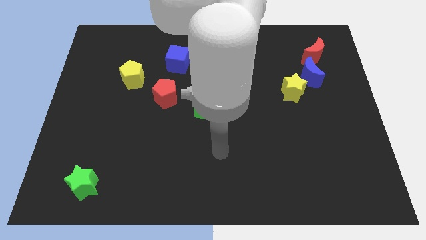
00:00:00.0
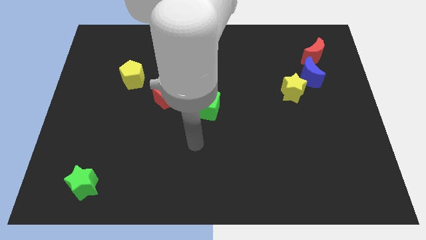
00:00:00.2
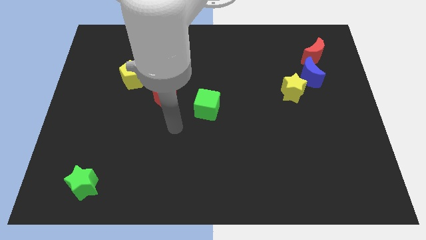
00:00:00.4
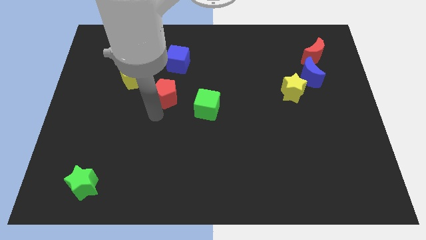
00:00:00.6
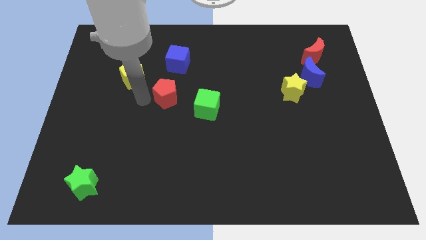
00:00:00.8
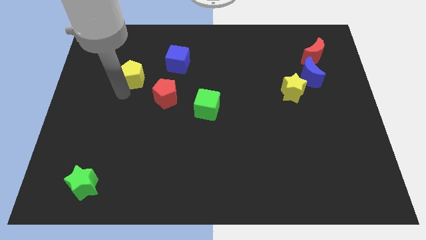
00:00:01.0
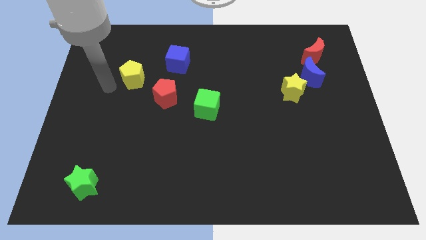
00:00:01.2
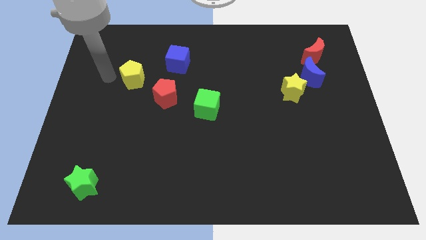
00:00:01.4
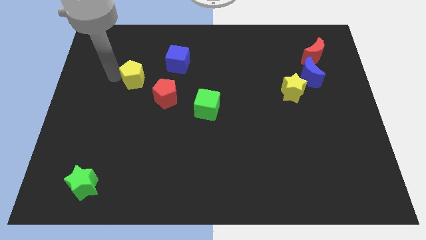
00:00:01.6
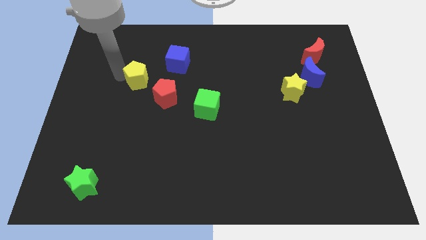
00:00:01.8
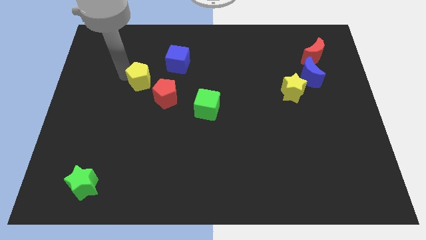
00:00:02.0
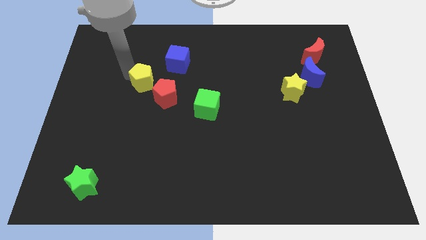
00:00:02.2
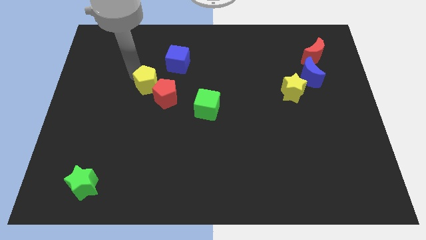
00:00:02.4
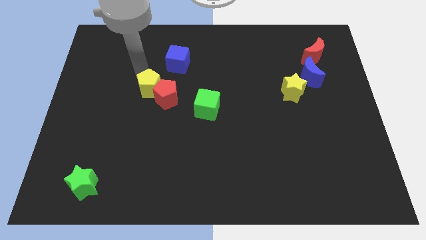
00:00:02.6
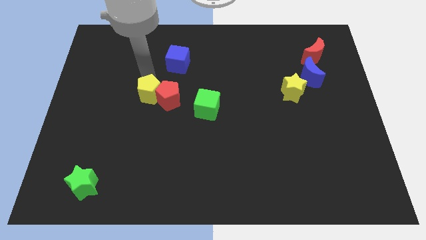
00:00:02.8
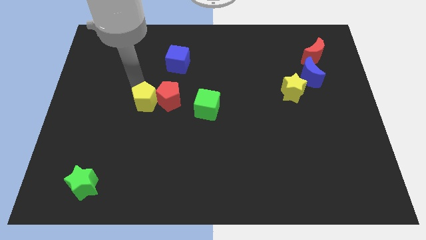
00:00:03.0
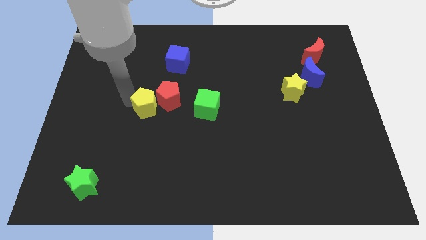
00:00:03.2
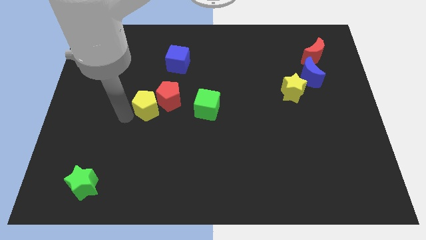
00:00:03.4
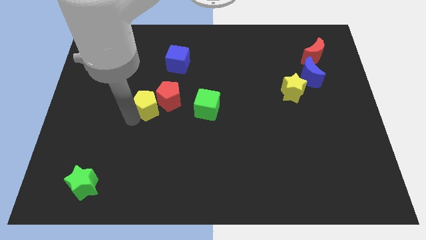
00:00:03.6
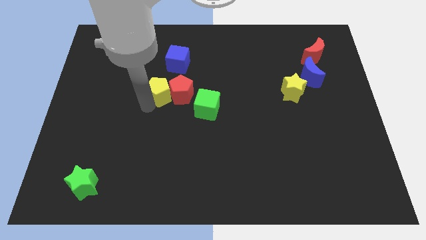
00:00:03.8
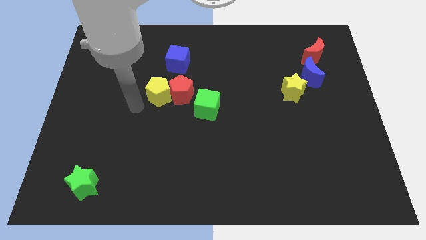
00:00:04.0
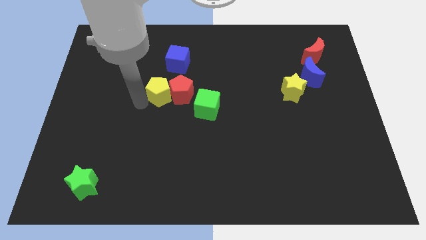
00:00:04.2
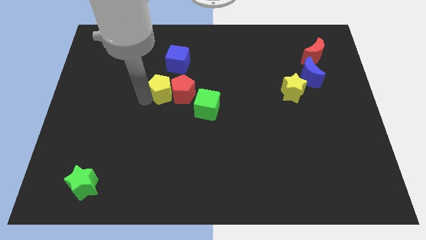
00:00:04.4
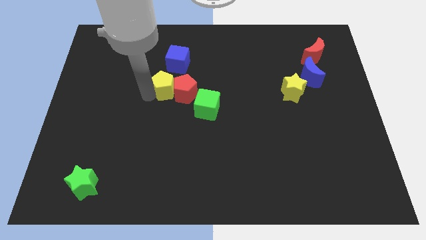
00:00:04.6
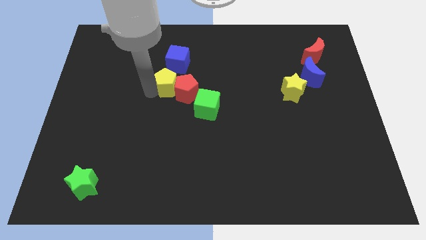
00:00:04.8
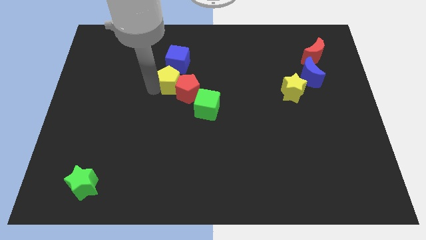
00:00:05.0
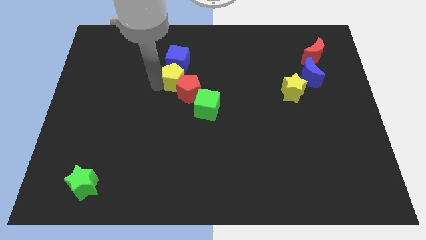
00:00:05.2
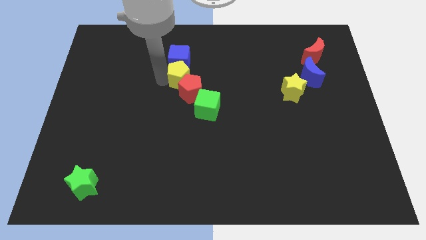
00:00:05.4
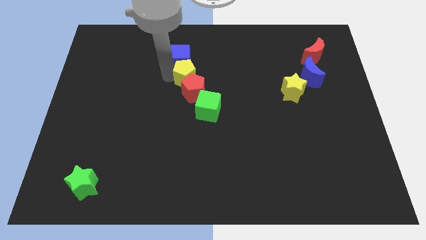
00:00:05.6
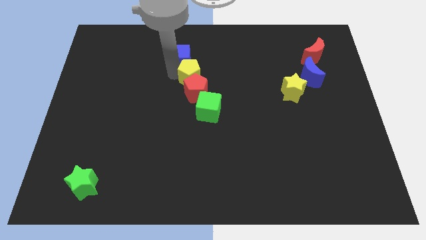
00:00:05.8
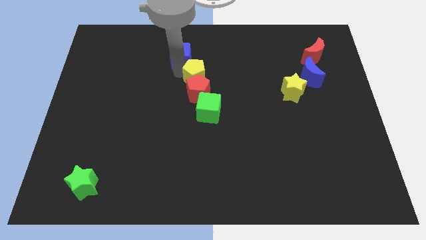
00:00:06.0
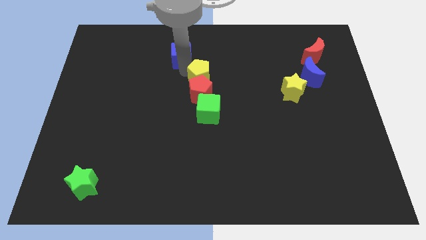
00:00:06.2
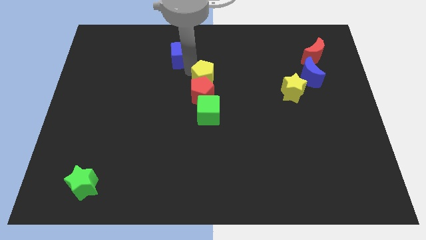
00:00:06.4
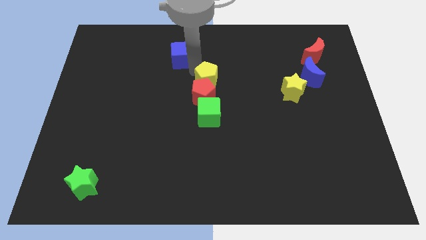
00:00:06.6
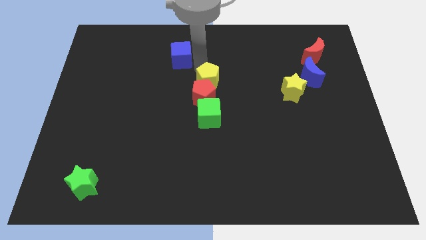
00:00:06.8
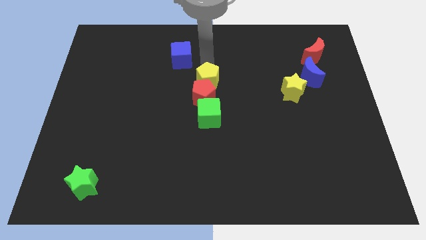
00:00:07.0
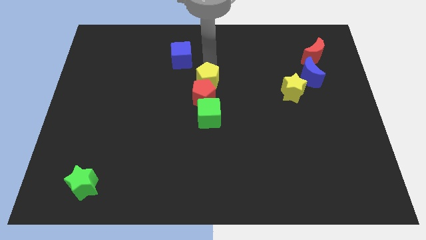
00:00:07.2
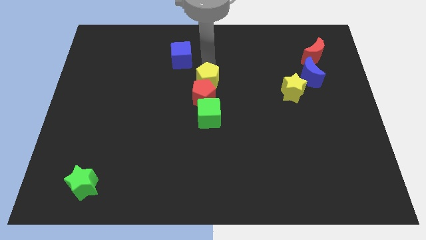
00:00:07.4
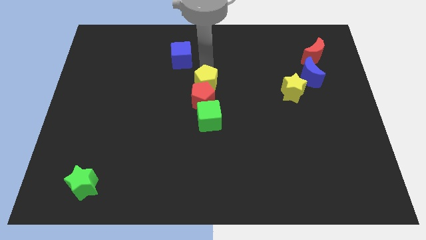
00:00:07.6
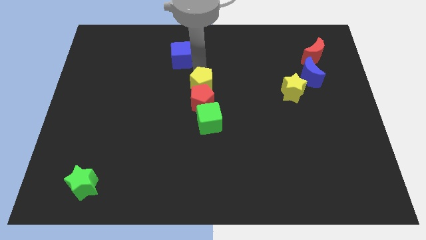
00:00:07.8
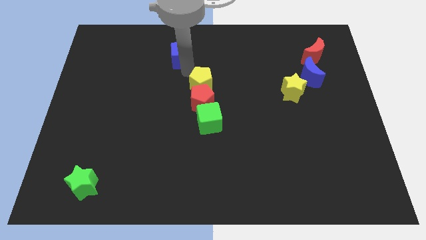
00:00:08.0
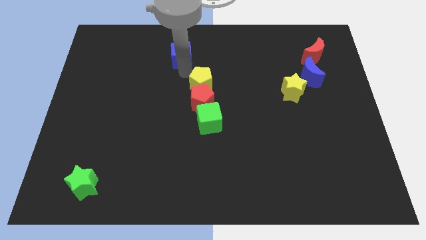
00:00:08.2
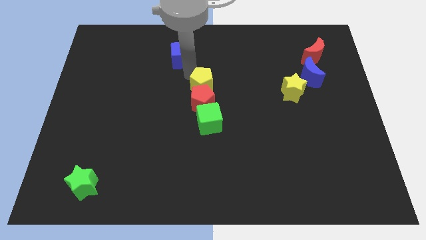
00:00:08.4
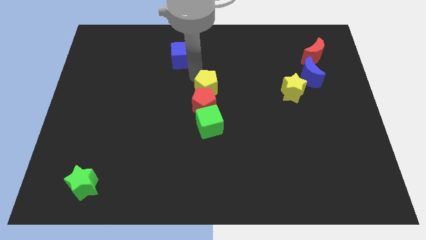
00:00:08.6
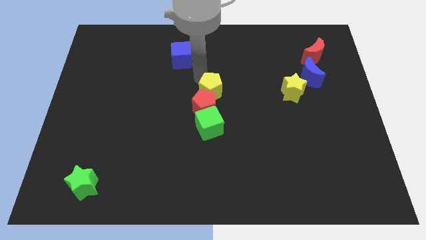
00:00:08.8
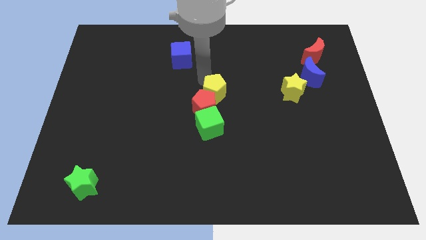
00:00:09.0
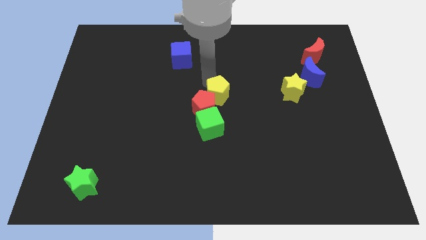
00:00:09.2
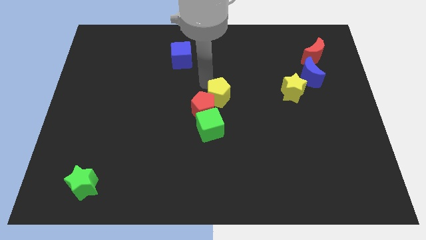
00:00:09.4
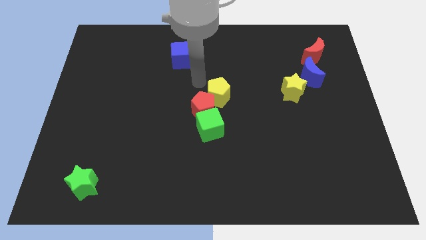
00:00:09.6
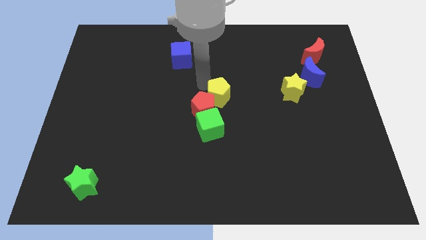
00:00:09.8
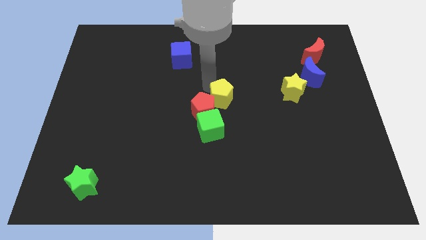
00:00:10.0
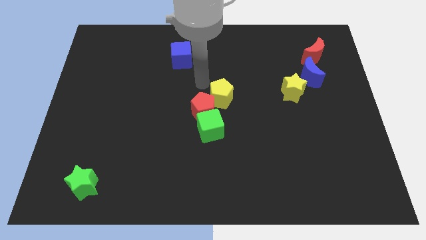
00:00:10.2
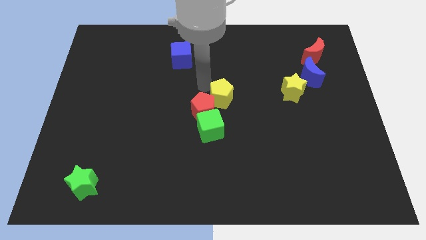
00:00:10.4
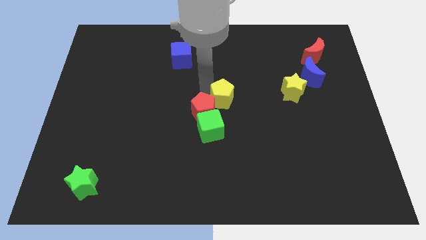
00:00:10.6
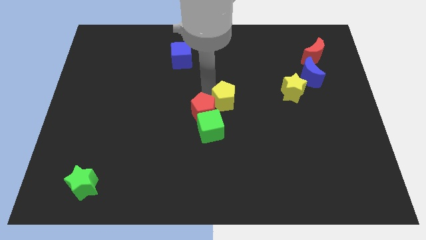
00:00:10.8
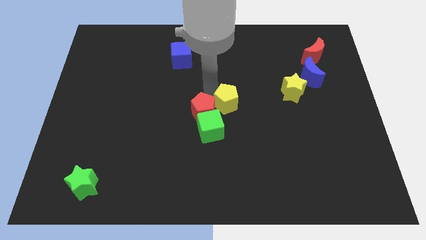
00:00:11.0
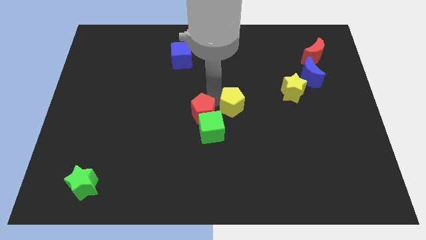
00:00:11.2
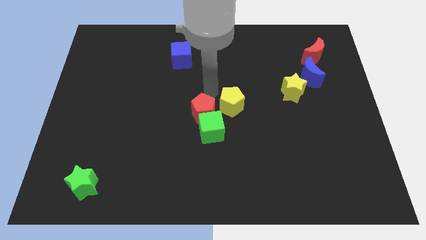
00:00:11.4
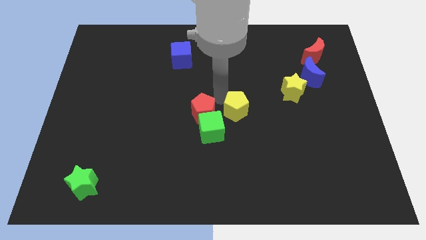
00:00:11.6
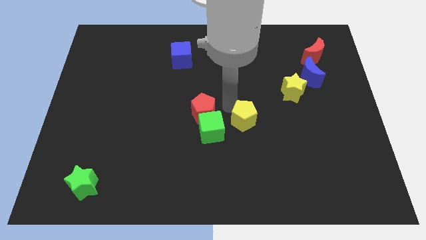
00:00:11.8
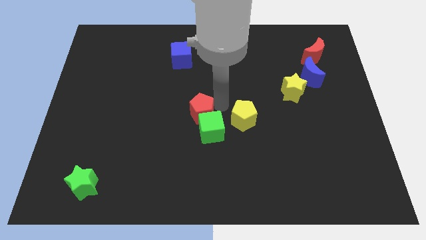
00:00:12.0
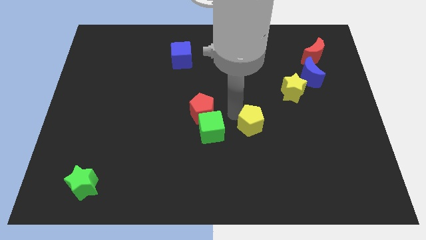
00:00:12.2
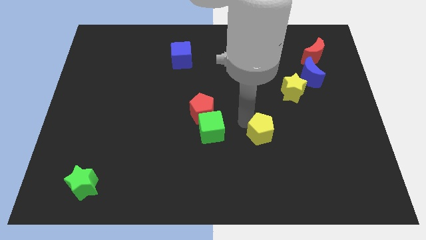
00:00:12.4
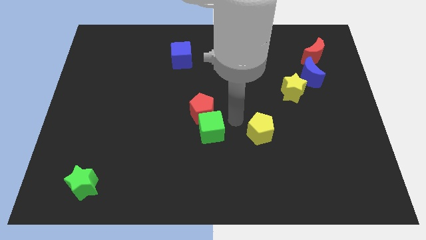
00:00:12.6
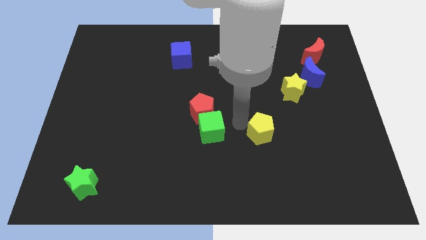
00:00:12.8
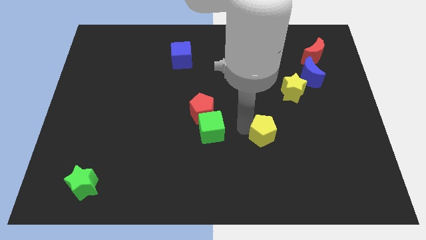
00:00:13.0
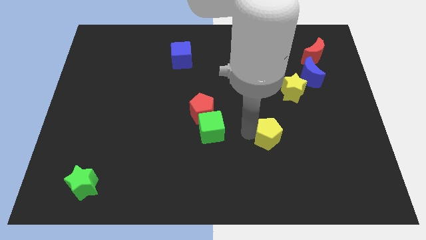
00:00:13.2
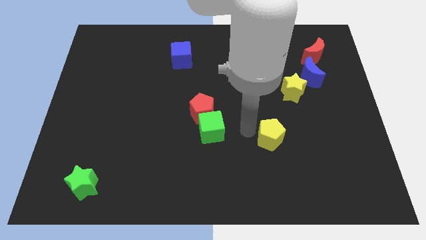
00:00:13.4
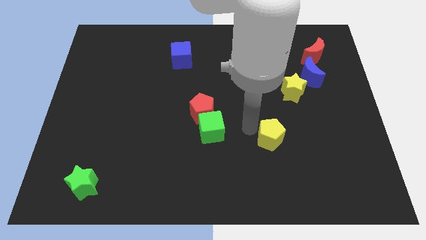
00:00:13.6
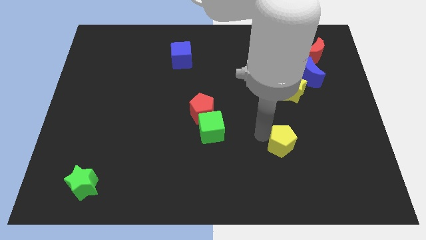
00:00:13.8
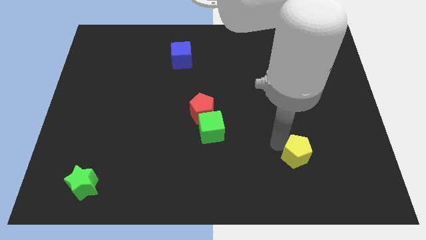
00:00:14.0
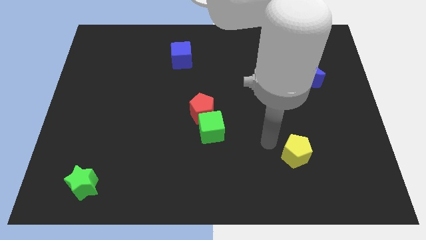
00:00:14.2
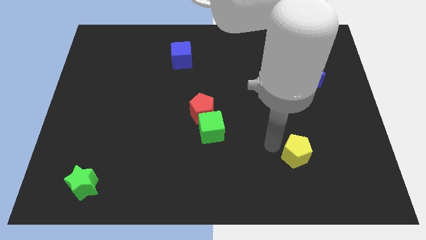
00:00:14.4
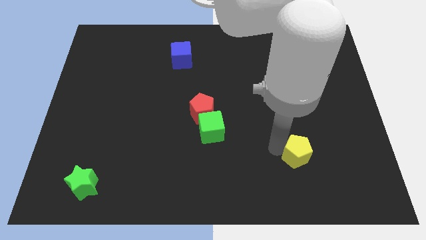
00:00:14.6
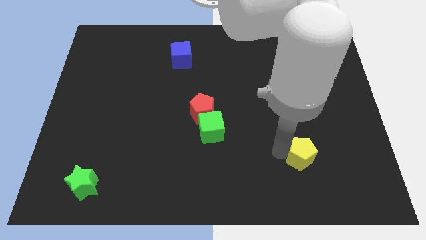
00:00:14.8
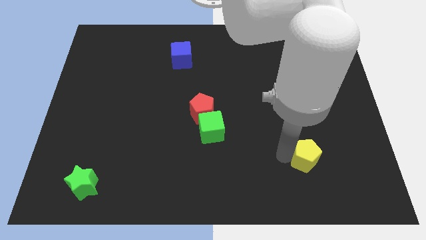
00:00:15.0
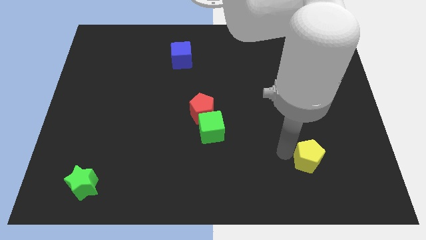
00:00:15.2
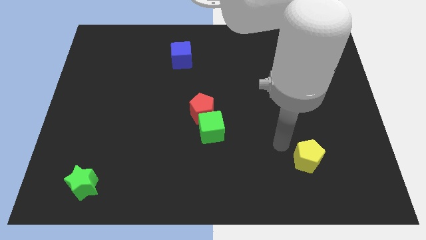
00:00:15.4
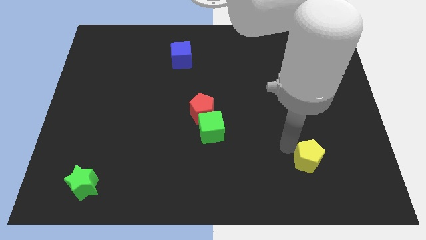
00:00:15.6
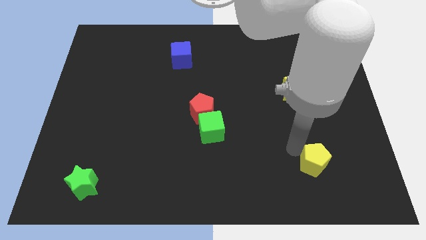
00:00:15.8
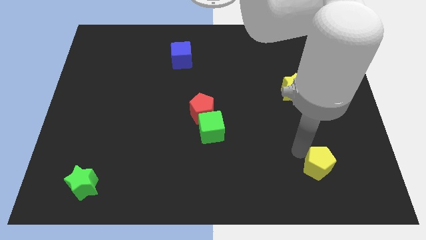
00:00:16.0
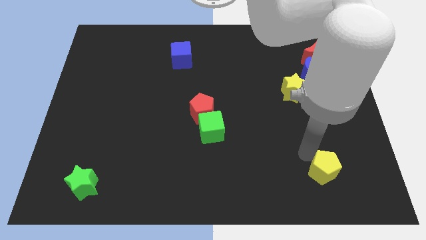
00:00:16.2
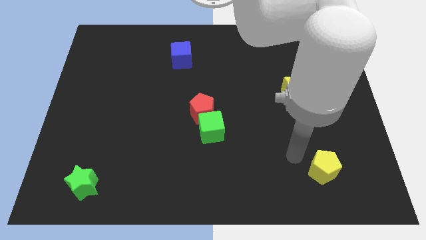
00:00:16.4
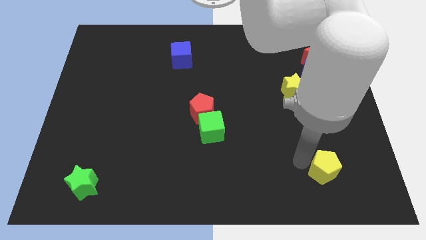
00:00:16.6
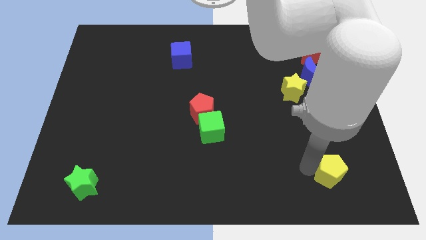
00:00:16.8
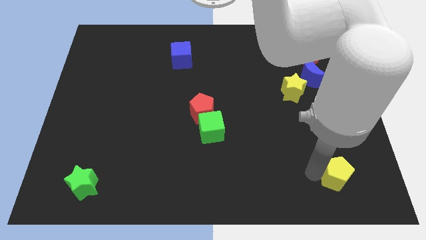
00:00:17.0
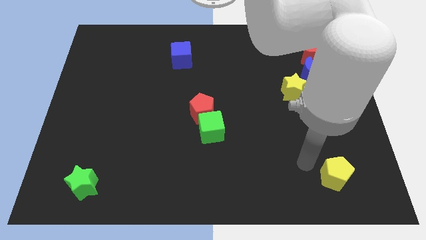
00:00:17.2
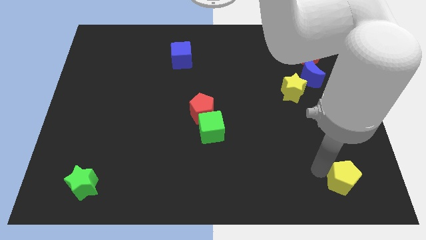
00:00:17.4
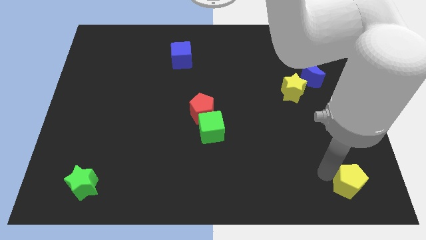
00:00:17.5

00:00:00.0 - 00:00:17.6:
put the yellow pentagon to the bottom right of the board
